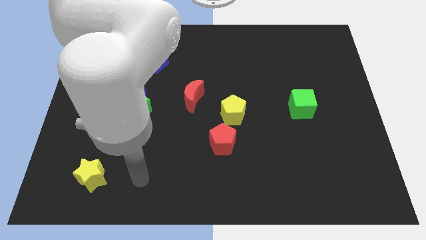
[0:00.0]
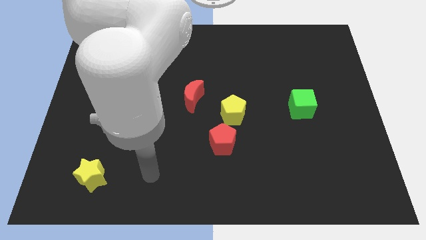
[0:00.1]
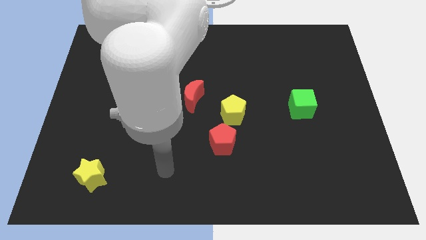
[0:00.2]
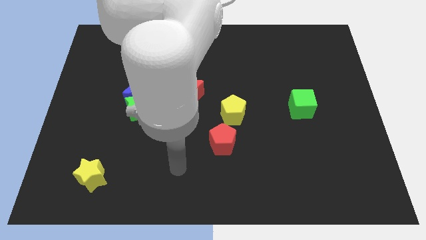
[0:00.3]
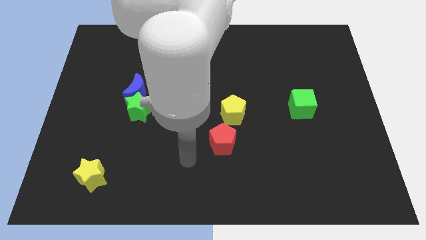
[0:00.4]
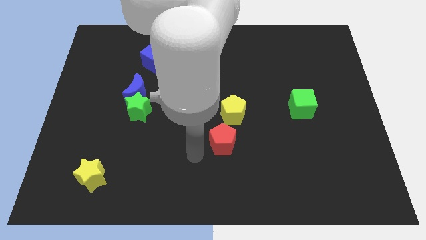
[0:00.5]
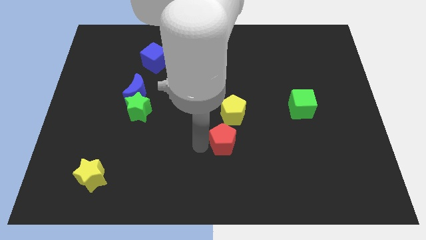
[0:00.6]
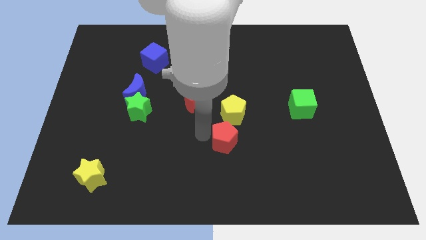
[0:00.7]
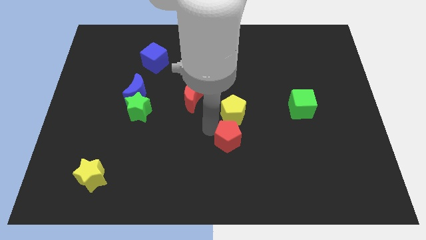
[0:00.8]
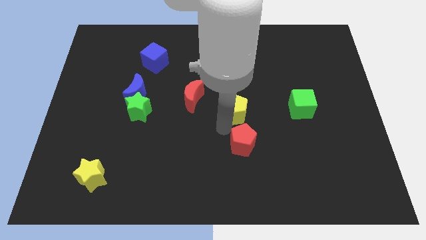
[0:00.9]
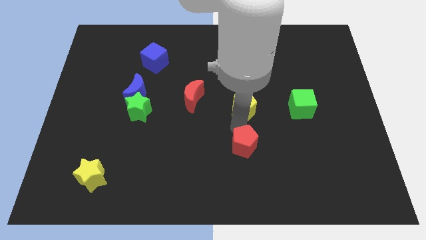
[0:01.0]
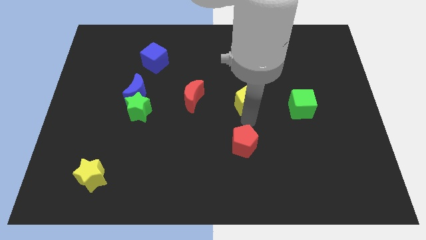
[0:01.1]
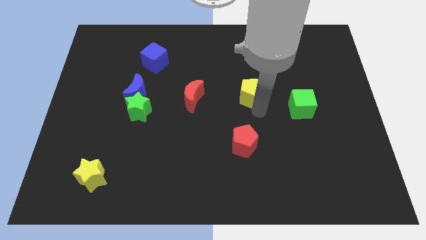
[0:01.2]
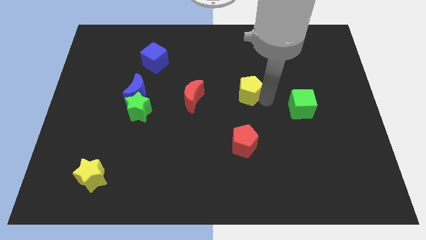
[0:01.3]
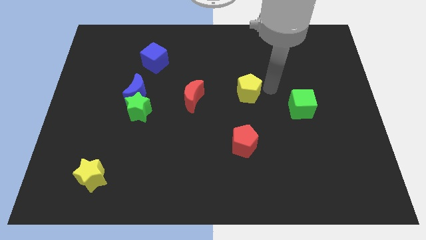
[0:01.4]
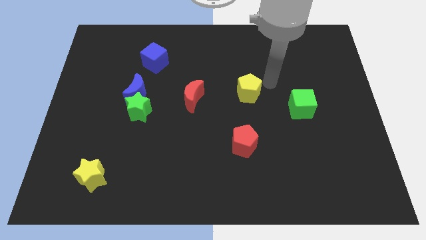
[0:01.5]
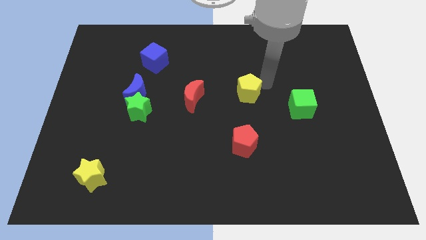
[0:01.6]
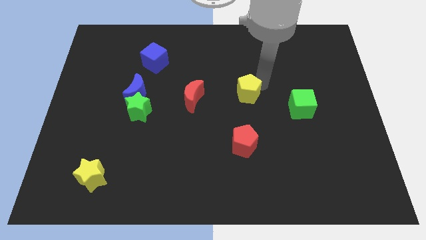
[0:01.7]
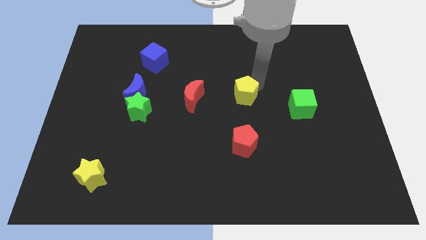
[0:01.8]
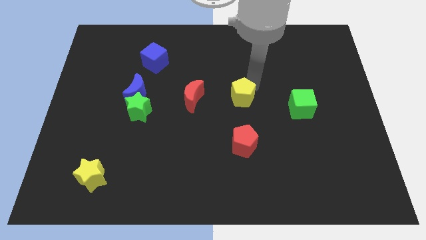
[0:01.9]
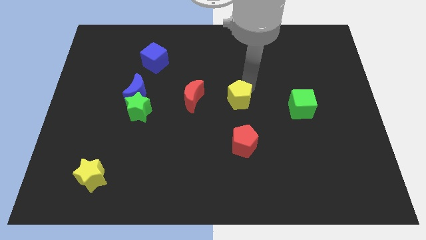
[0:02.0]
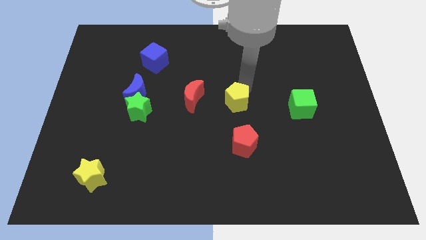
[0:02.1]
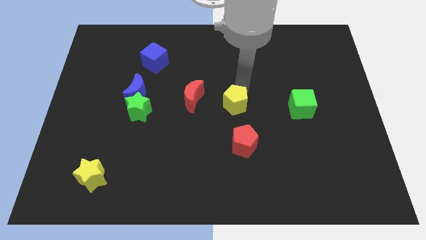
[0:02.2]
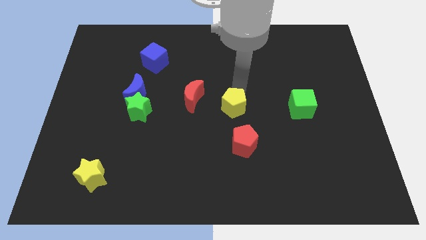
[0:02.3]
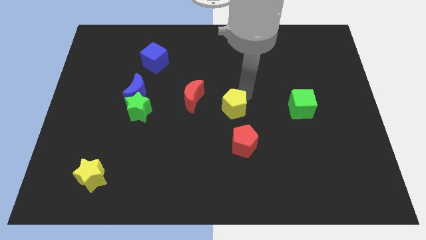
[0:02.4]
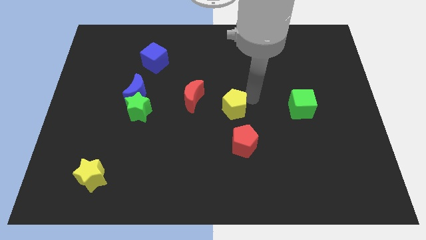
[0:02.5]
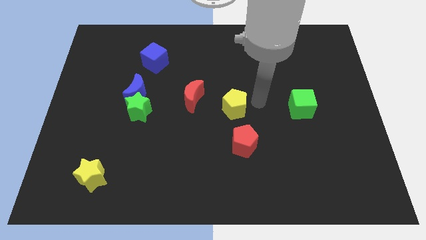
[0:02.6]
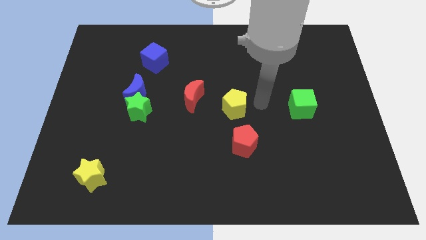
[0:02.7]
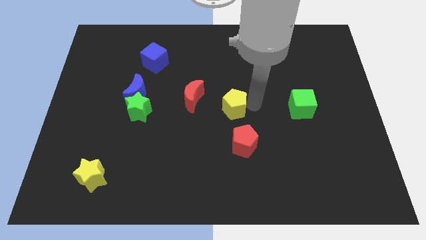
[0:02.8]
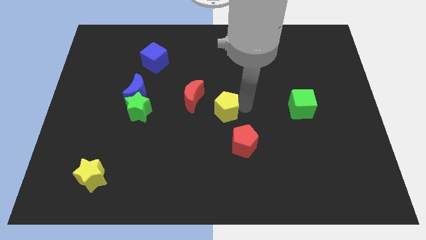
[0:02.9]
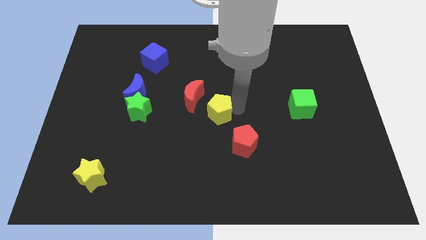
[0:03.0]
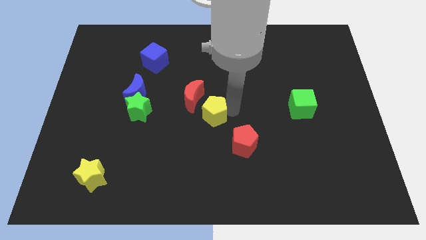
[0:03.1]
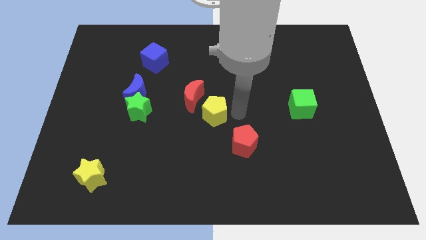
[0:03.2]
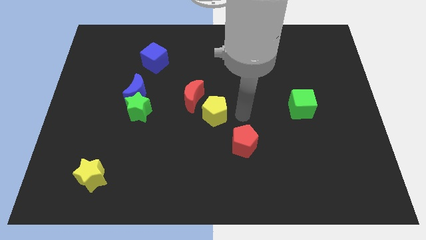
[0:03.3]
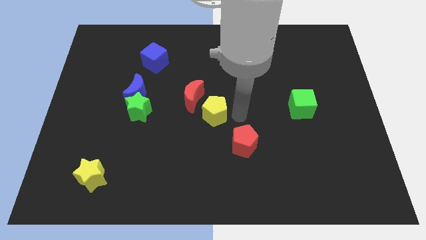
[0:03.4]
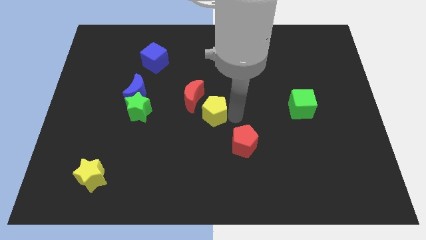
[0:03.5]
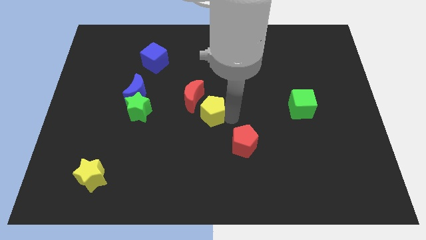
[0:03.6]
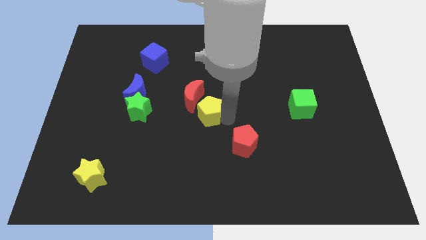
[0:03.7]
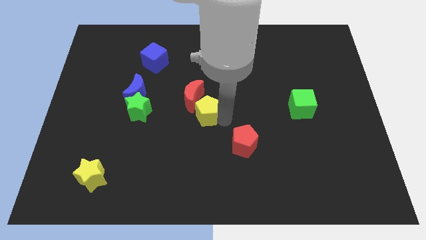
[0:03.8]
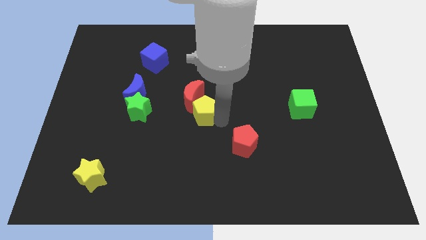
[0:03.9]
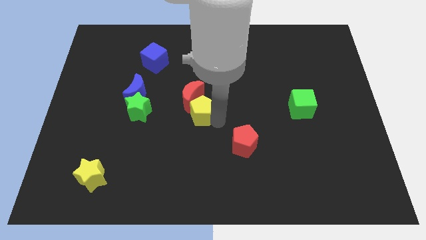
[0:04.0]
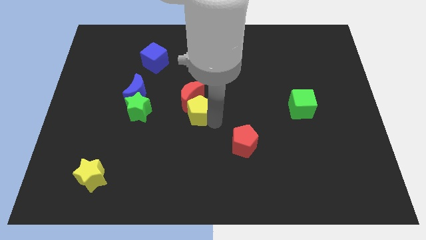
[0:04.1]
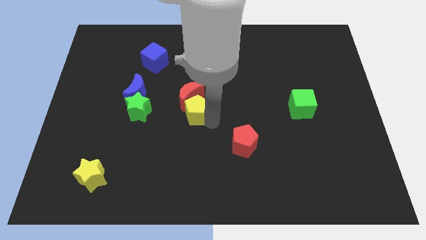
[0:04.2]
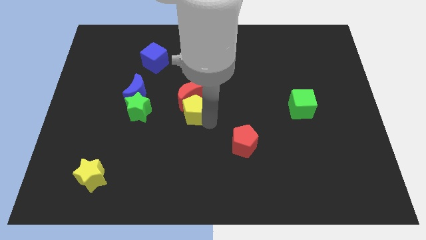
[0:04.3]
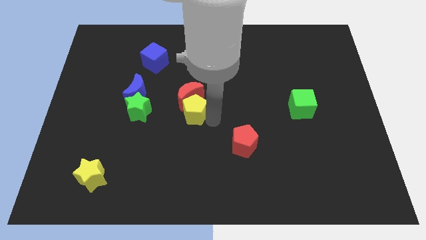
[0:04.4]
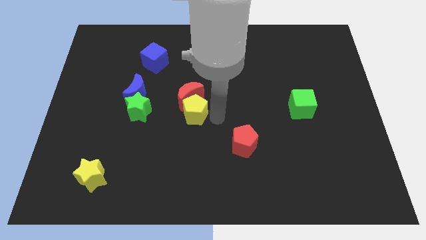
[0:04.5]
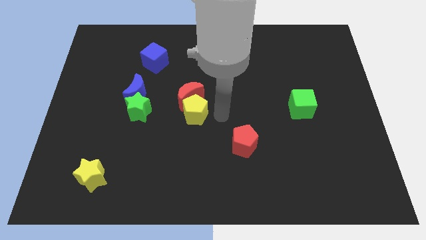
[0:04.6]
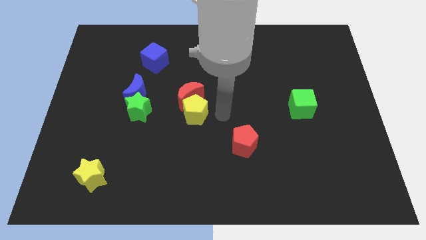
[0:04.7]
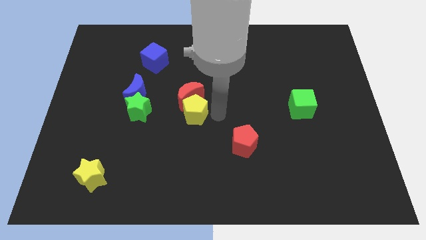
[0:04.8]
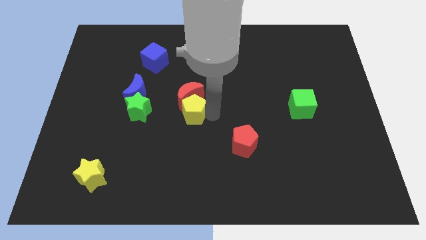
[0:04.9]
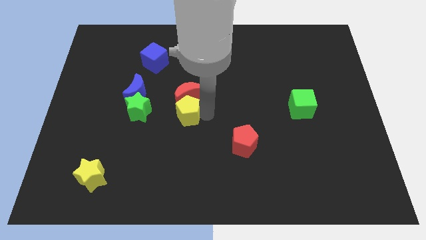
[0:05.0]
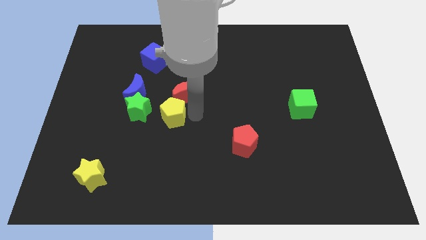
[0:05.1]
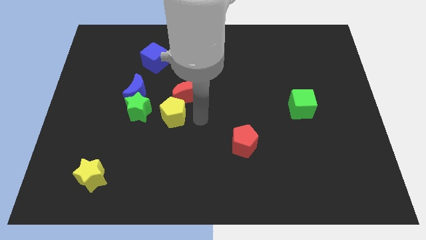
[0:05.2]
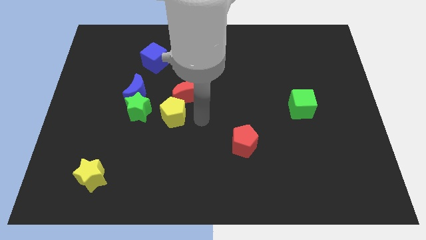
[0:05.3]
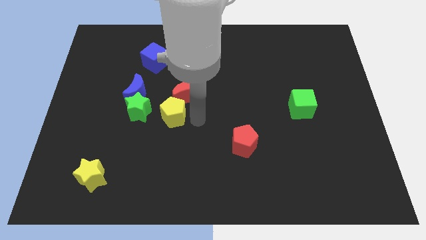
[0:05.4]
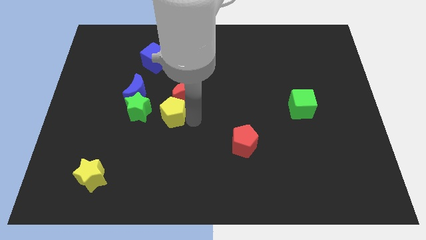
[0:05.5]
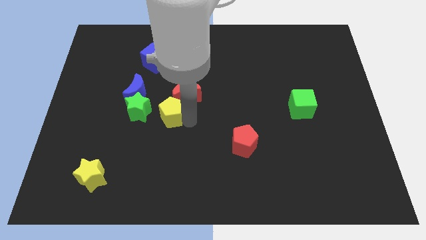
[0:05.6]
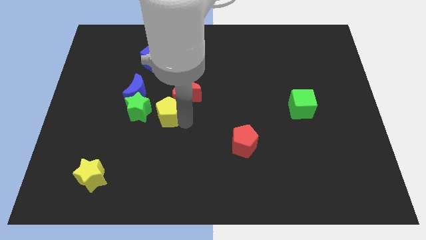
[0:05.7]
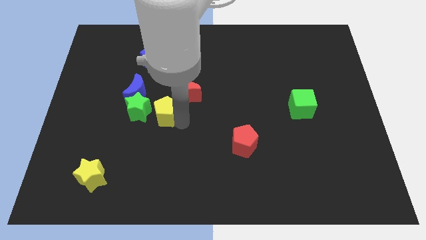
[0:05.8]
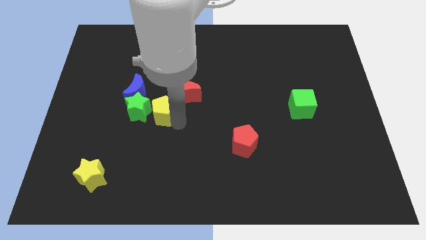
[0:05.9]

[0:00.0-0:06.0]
move the yellow pentagon next to the green star

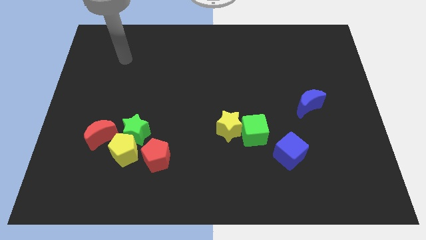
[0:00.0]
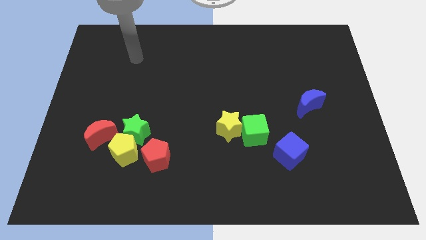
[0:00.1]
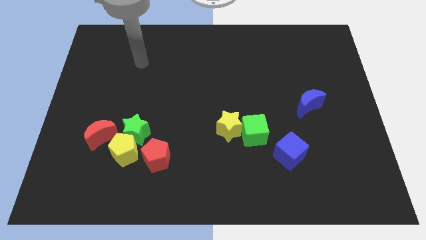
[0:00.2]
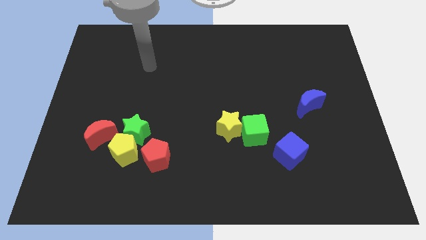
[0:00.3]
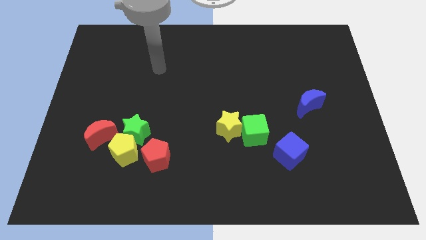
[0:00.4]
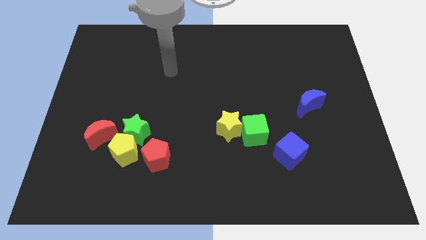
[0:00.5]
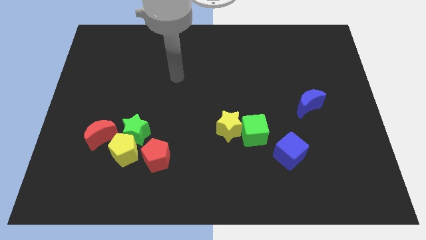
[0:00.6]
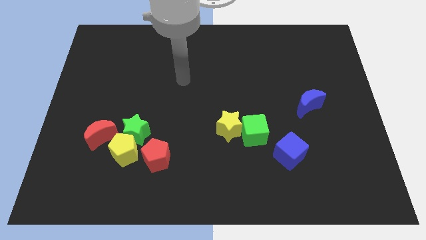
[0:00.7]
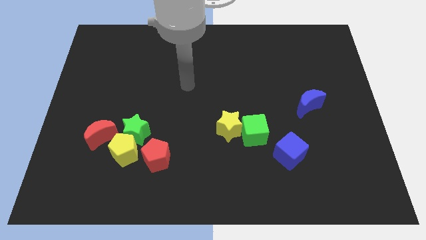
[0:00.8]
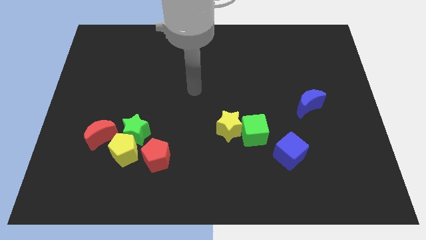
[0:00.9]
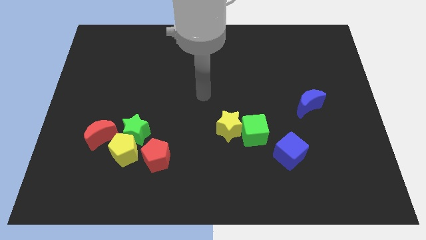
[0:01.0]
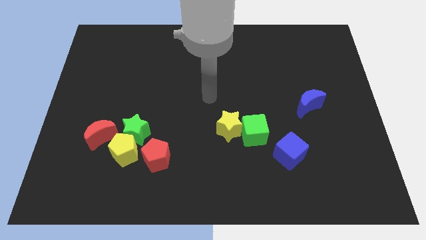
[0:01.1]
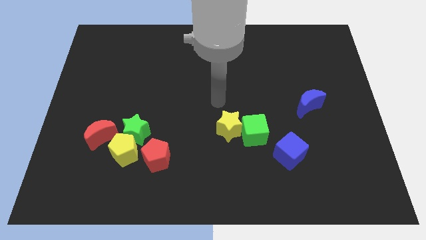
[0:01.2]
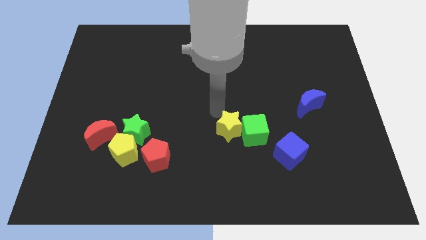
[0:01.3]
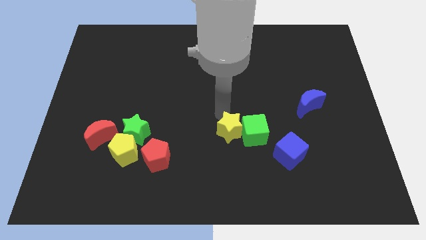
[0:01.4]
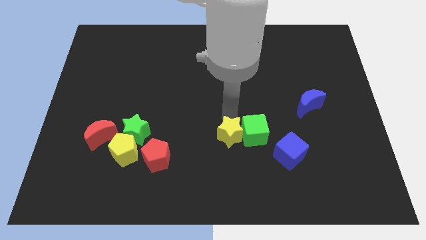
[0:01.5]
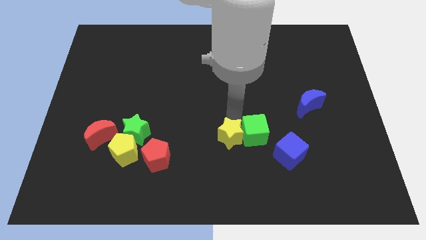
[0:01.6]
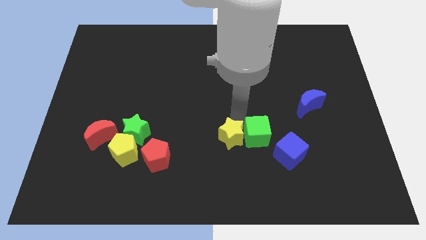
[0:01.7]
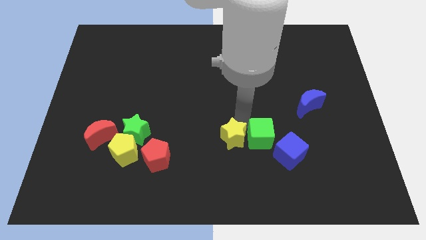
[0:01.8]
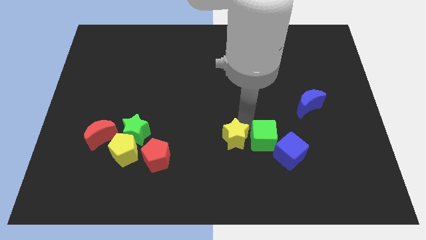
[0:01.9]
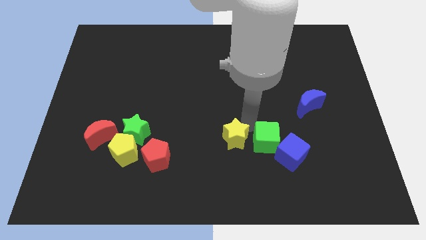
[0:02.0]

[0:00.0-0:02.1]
move the green cube to the blue cube
